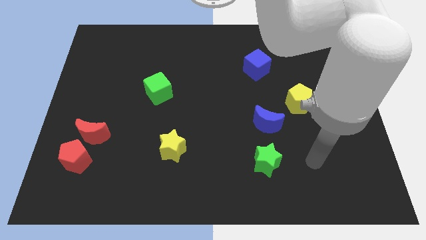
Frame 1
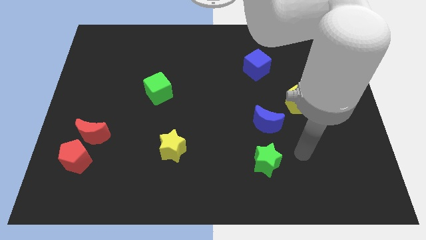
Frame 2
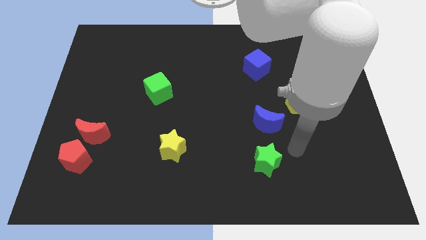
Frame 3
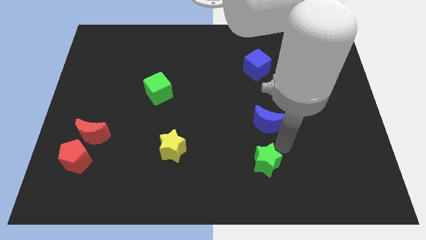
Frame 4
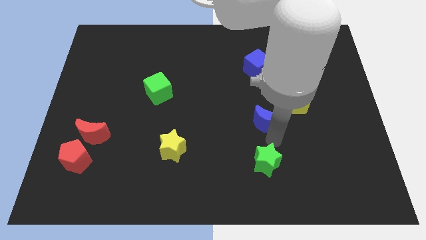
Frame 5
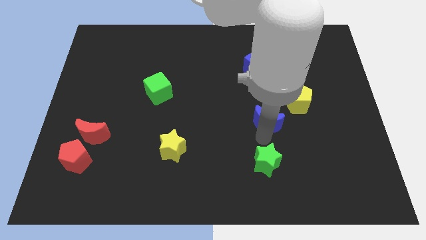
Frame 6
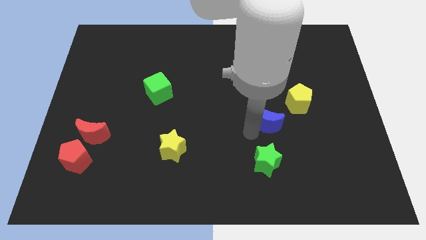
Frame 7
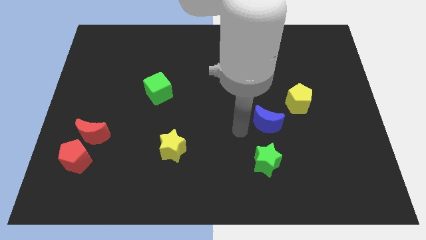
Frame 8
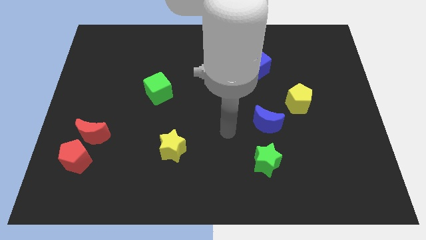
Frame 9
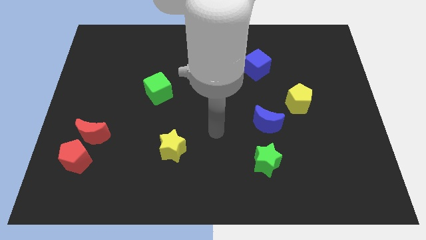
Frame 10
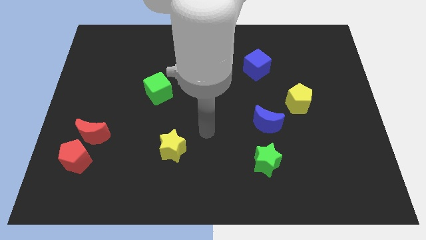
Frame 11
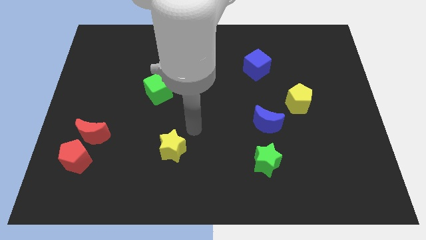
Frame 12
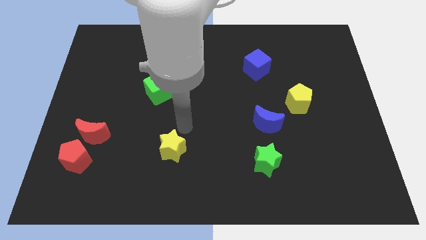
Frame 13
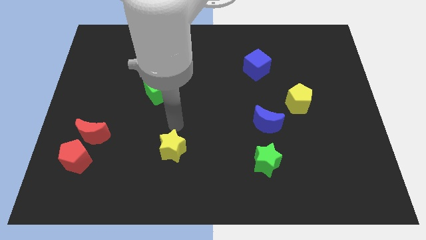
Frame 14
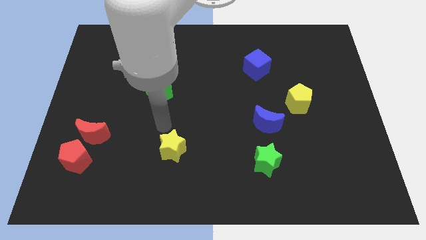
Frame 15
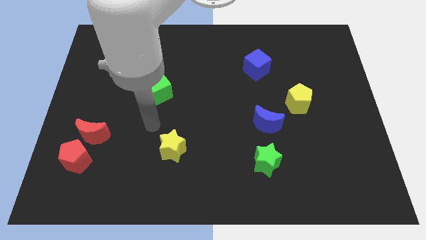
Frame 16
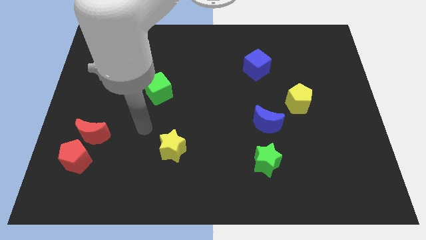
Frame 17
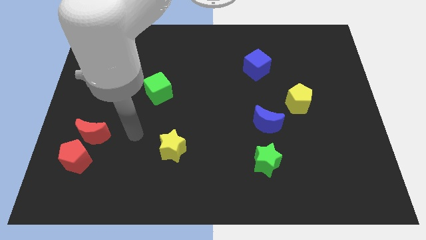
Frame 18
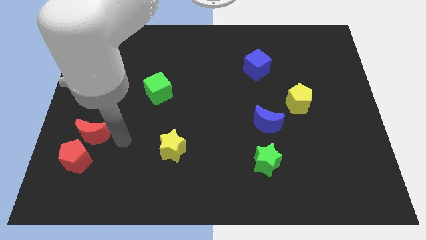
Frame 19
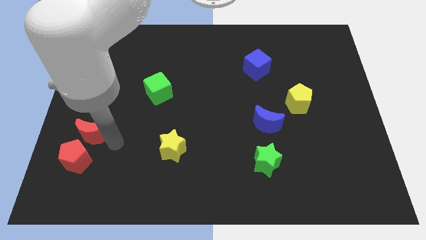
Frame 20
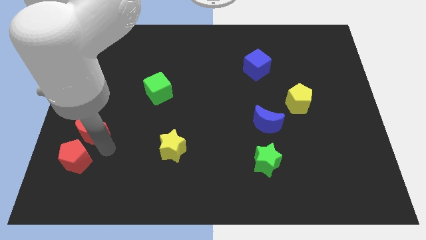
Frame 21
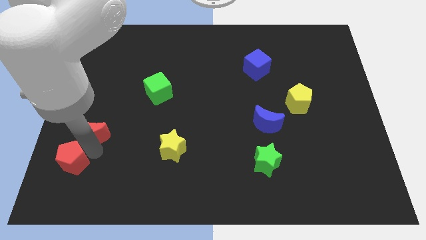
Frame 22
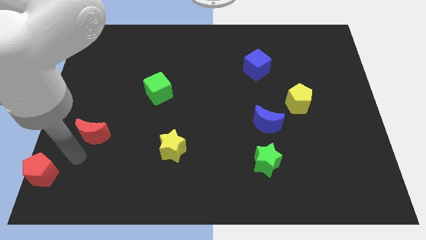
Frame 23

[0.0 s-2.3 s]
separate the red moon from the red pentagon

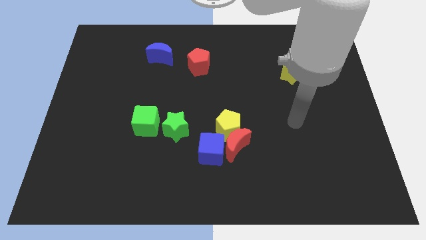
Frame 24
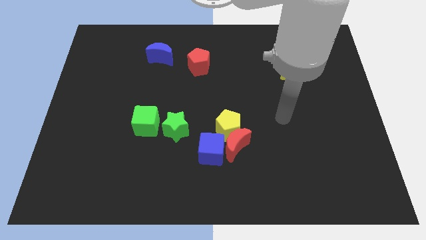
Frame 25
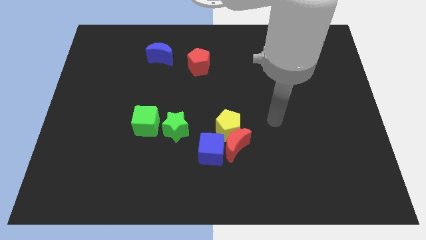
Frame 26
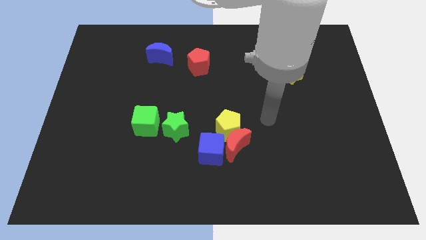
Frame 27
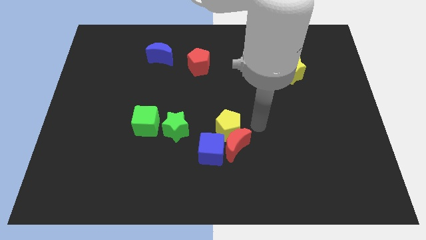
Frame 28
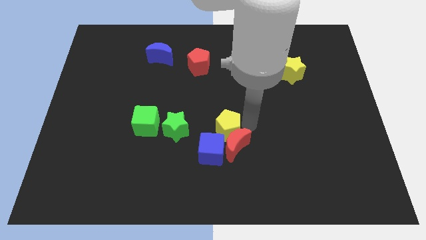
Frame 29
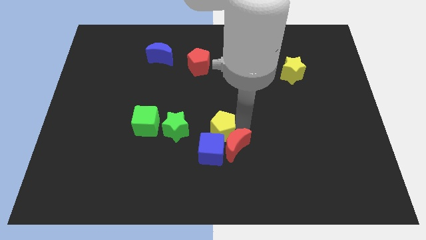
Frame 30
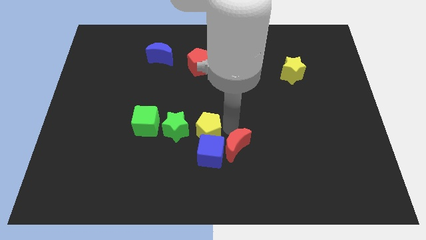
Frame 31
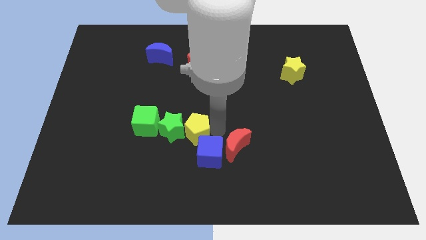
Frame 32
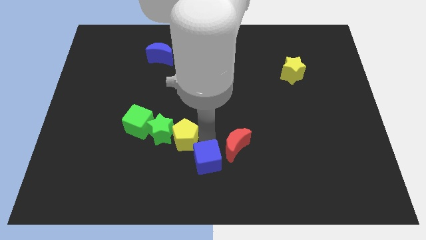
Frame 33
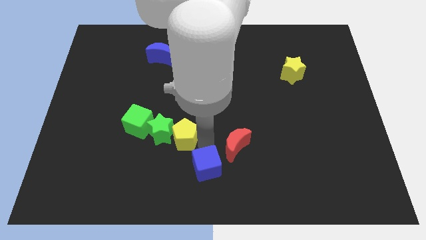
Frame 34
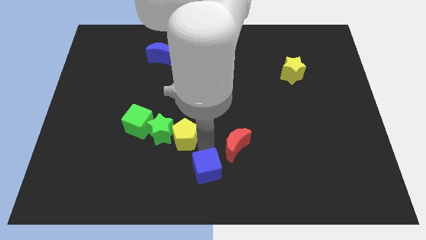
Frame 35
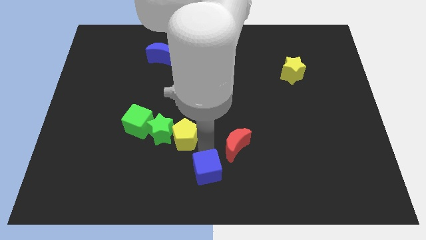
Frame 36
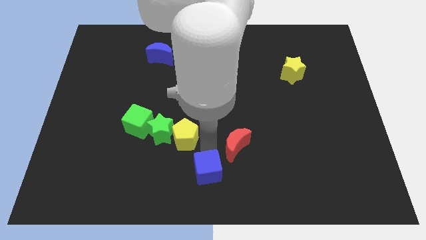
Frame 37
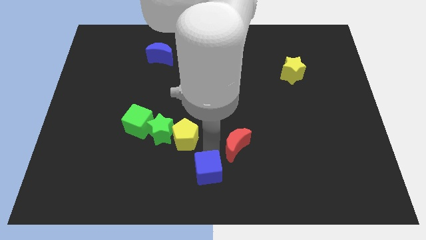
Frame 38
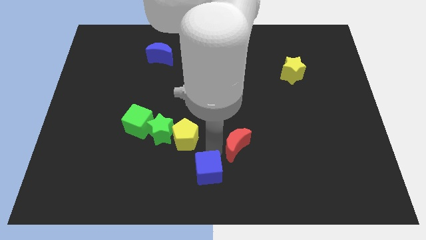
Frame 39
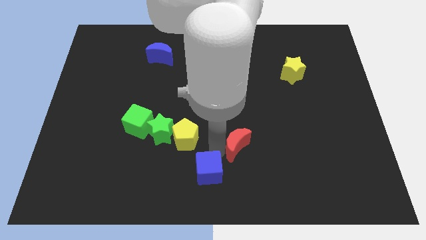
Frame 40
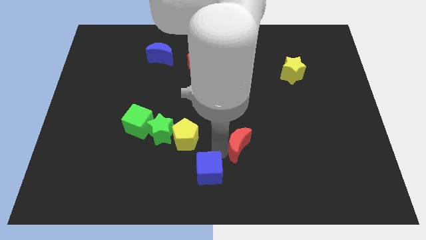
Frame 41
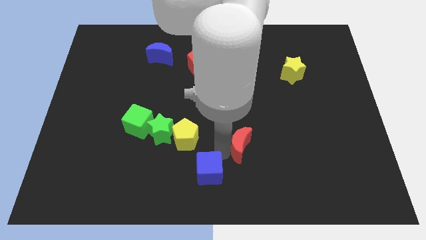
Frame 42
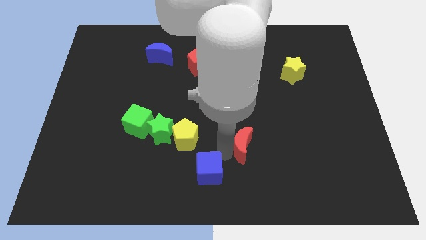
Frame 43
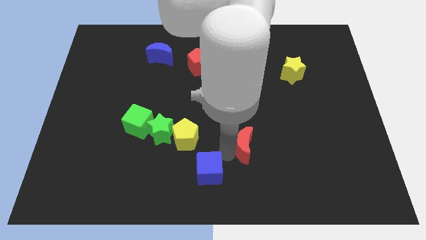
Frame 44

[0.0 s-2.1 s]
move the red moon away from the yellow pentagon and blue cube

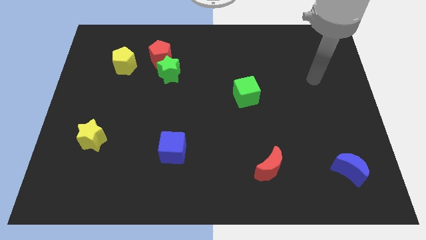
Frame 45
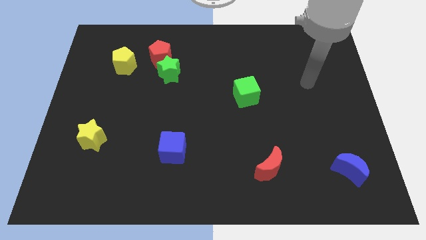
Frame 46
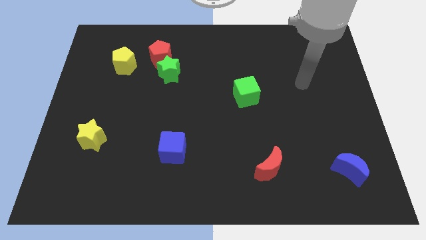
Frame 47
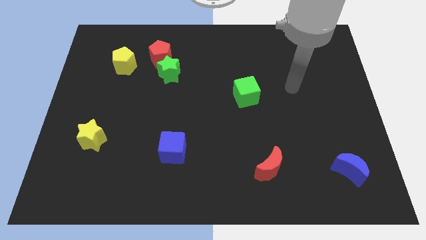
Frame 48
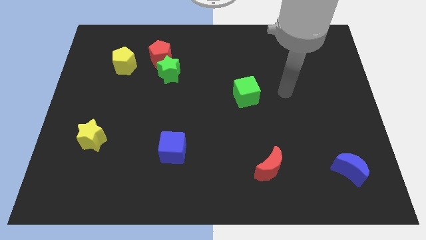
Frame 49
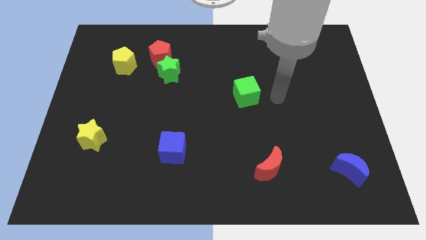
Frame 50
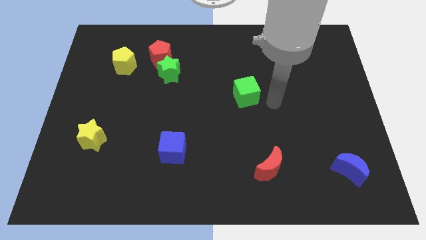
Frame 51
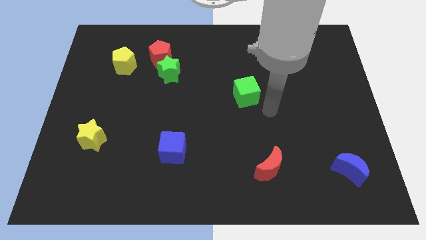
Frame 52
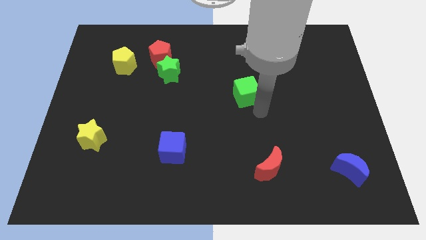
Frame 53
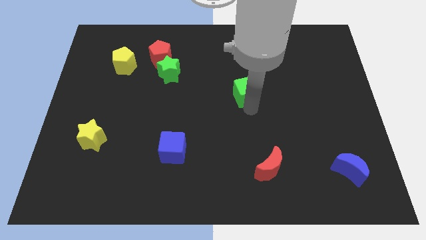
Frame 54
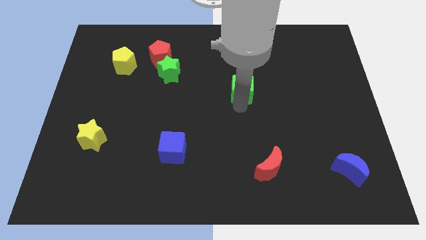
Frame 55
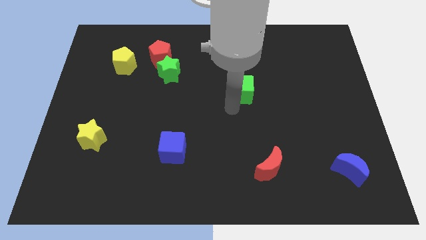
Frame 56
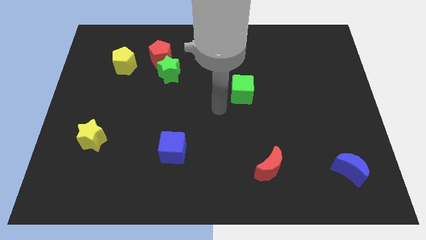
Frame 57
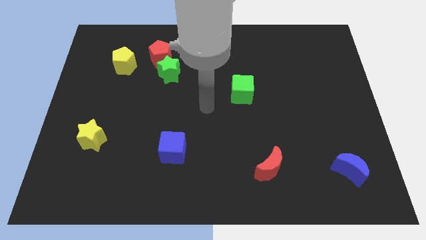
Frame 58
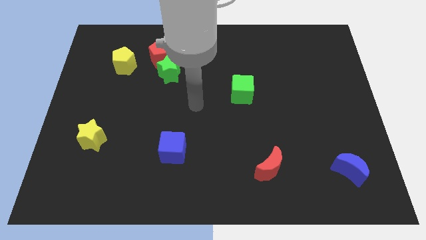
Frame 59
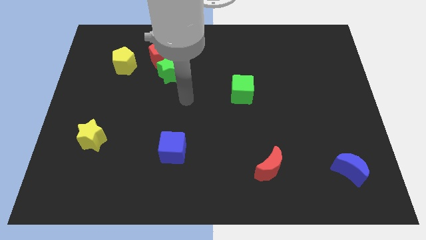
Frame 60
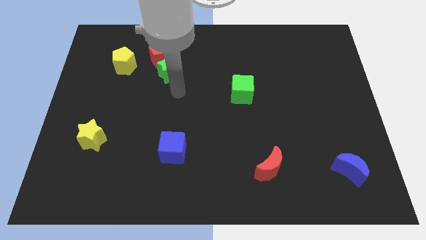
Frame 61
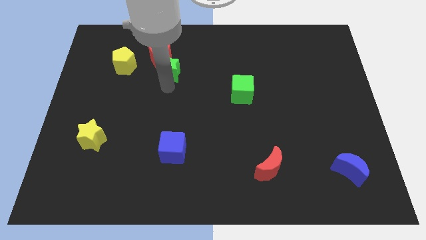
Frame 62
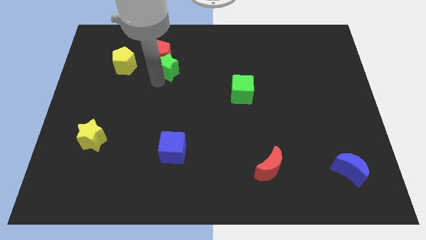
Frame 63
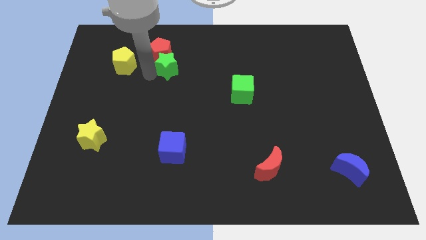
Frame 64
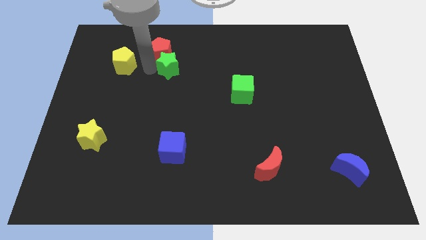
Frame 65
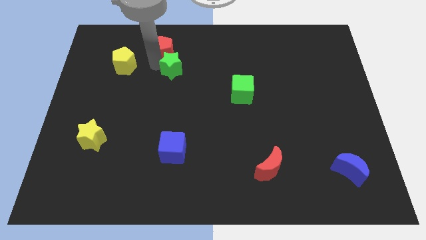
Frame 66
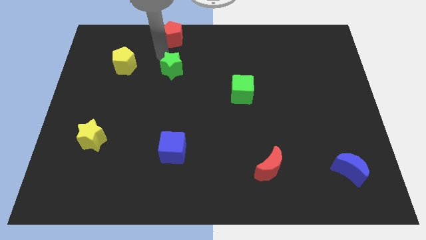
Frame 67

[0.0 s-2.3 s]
separate the green star from the red pentagon

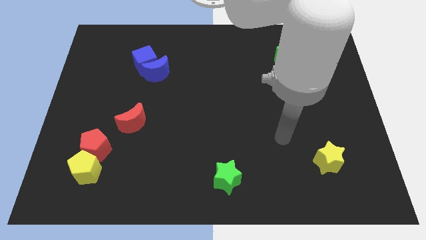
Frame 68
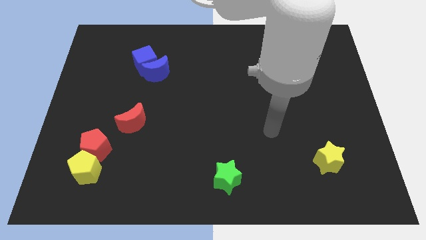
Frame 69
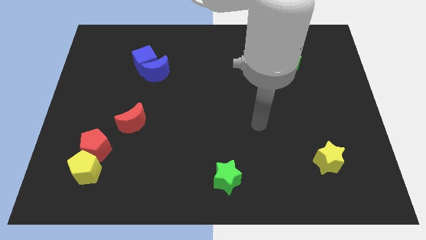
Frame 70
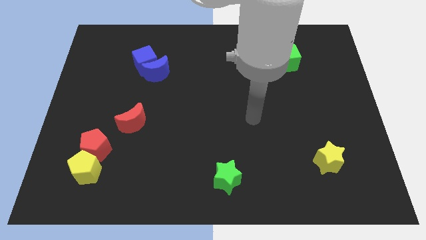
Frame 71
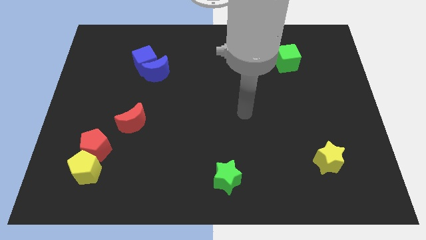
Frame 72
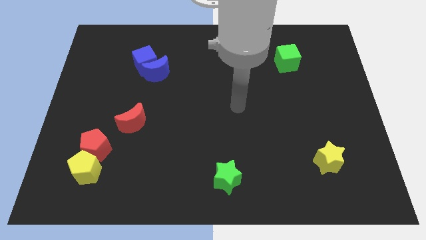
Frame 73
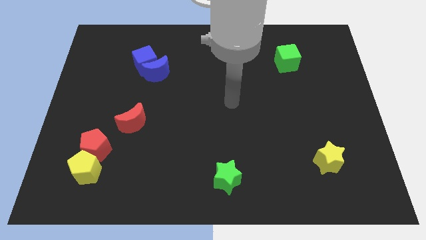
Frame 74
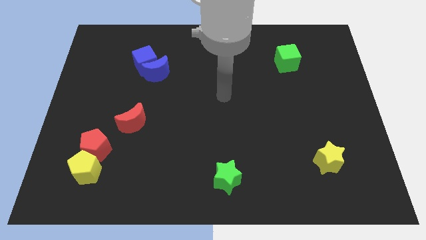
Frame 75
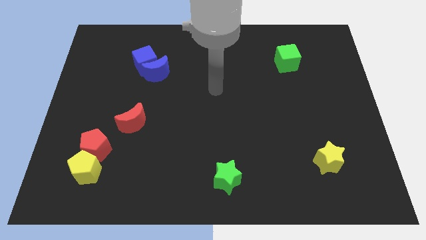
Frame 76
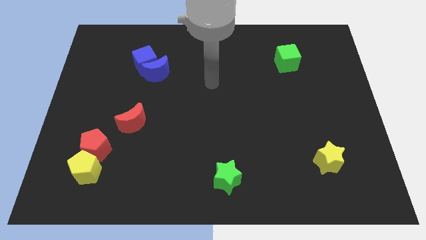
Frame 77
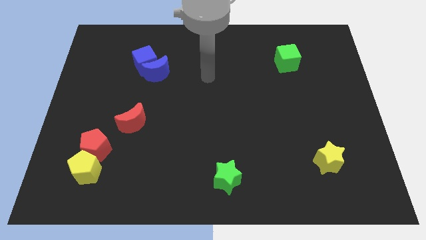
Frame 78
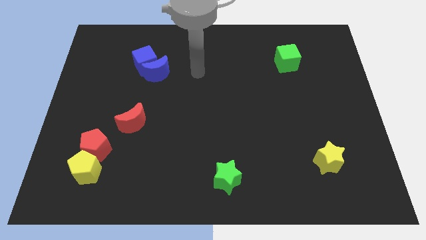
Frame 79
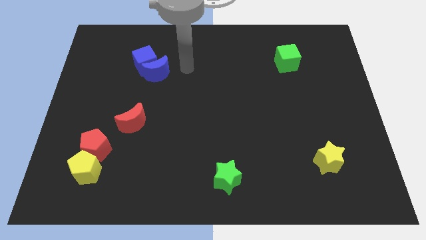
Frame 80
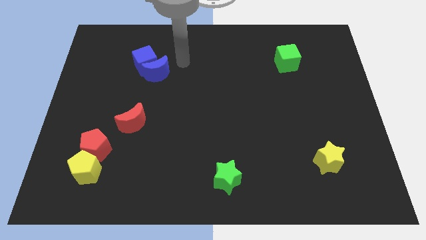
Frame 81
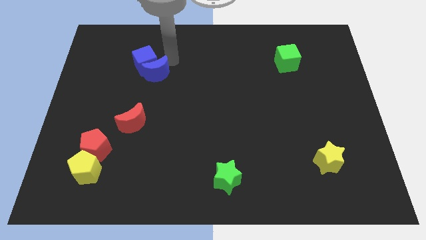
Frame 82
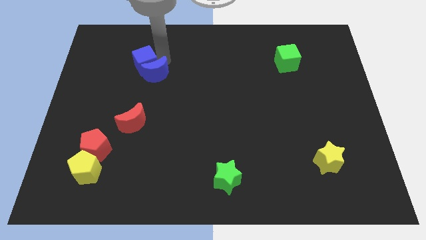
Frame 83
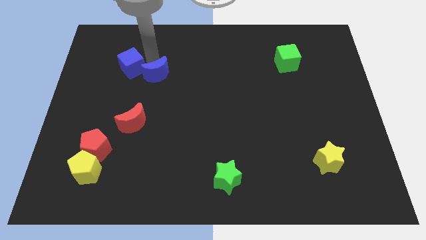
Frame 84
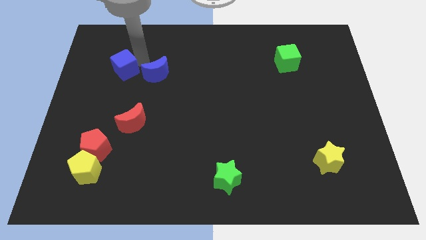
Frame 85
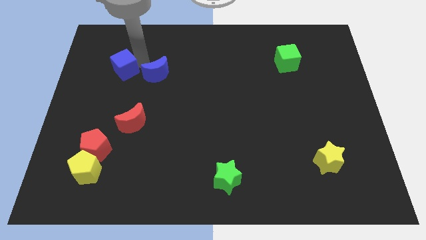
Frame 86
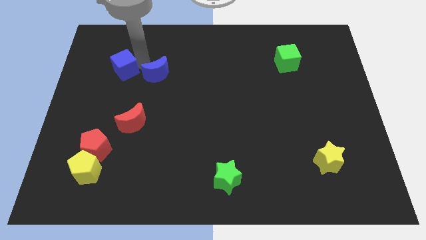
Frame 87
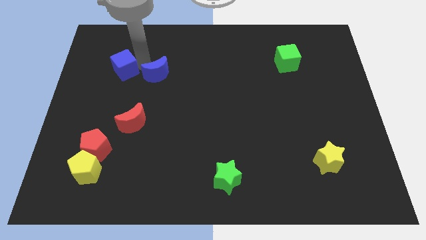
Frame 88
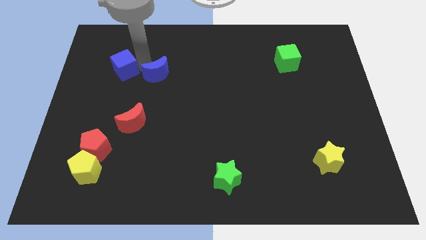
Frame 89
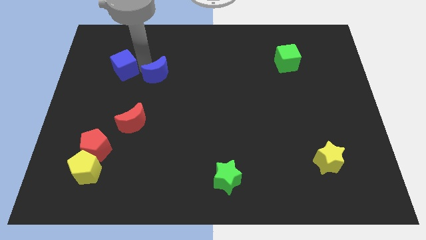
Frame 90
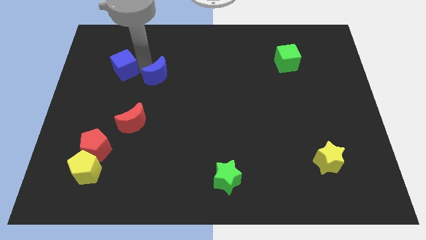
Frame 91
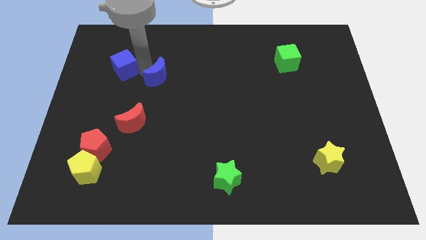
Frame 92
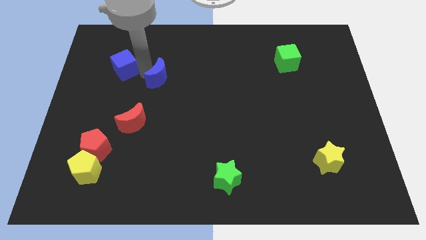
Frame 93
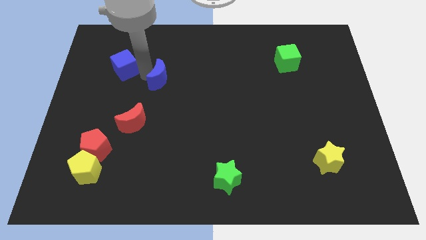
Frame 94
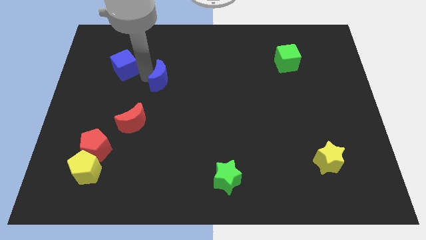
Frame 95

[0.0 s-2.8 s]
pull the blue moon apart from the blue cube
